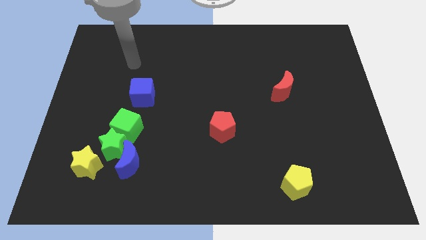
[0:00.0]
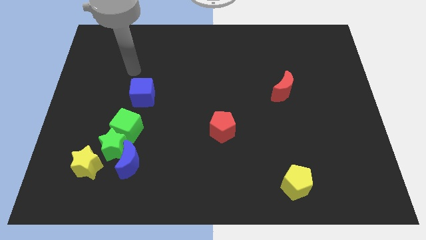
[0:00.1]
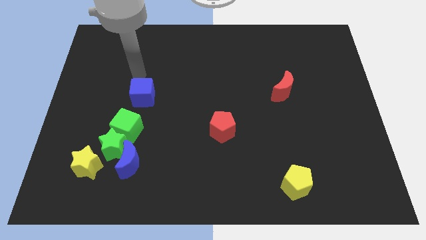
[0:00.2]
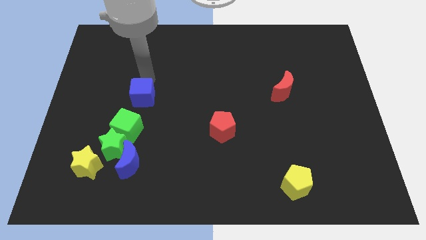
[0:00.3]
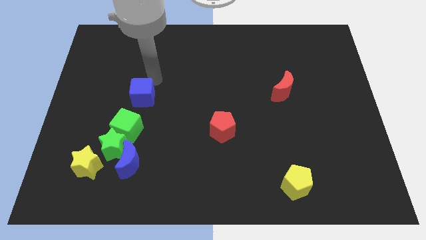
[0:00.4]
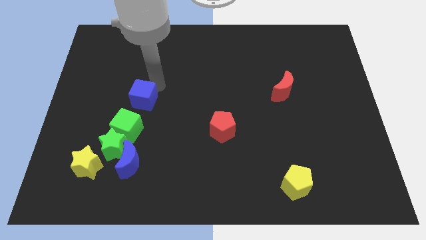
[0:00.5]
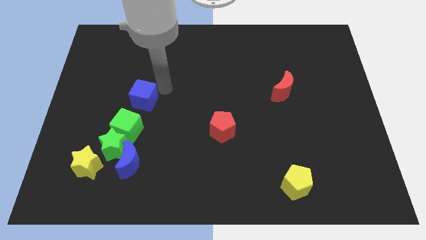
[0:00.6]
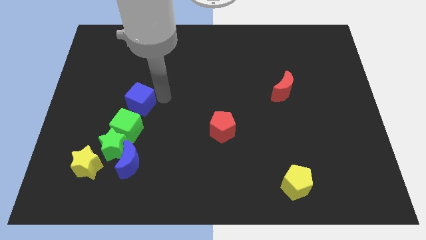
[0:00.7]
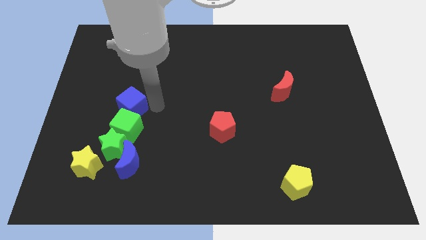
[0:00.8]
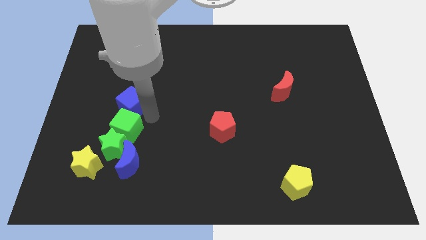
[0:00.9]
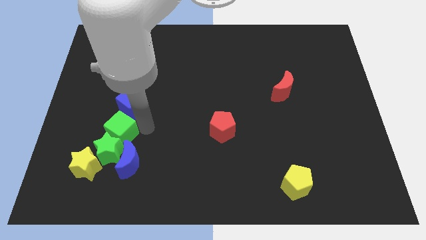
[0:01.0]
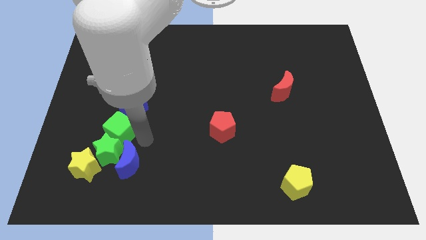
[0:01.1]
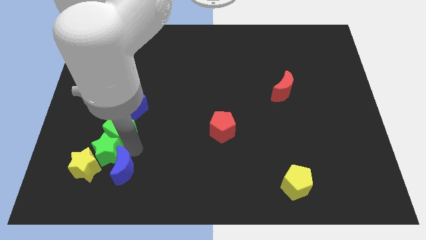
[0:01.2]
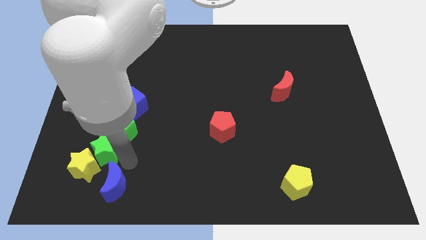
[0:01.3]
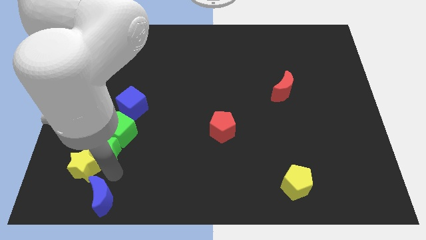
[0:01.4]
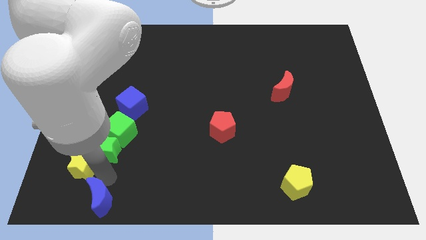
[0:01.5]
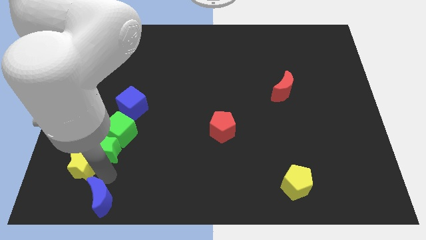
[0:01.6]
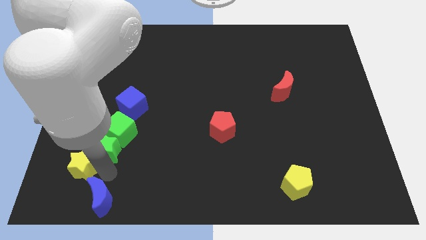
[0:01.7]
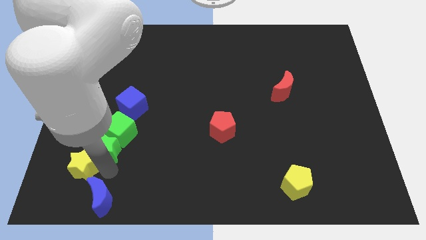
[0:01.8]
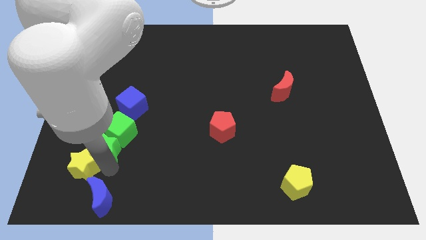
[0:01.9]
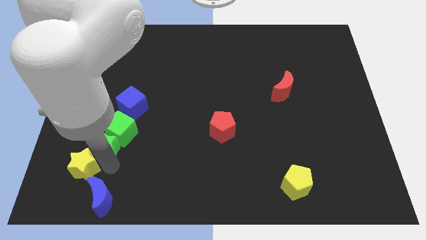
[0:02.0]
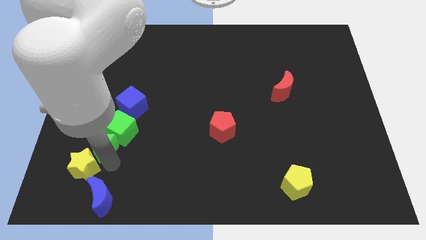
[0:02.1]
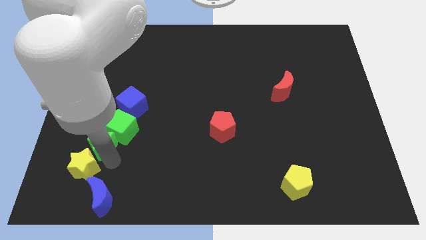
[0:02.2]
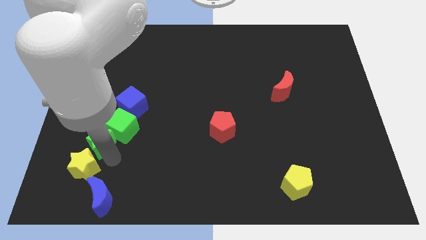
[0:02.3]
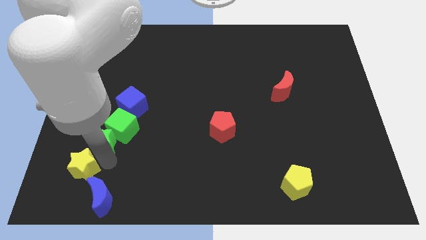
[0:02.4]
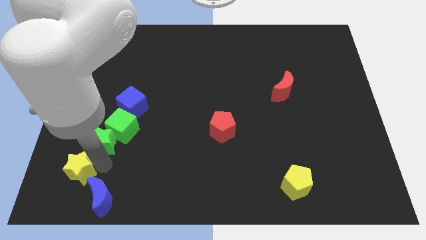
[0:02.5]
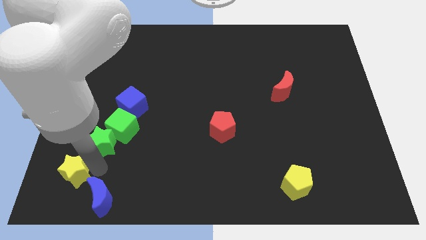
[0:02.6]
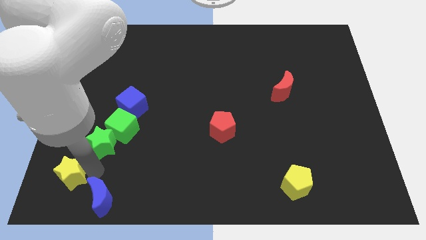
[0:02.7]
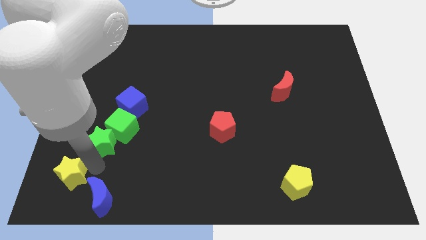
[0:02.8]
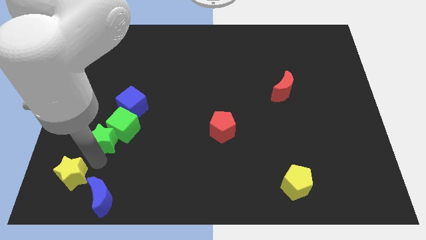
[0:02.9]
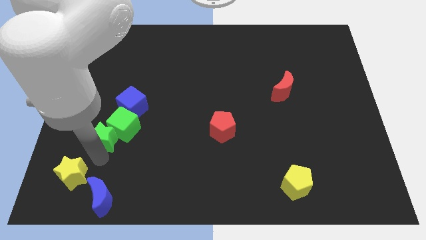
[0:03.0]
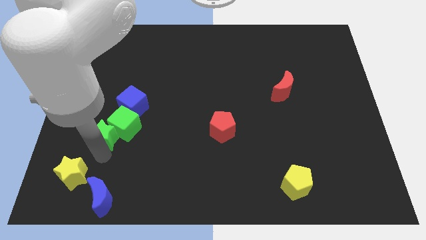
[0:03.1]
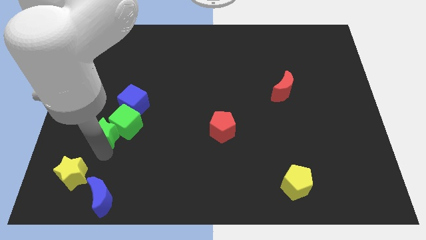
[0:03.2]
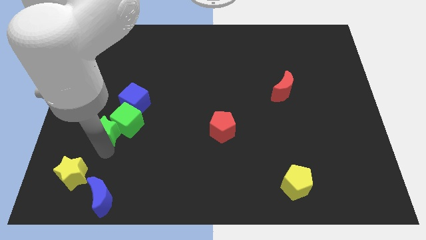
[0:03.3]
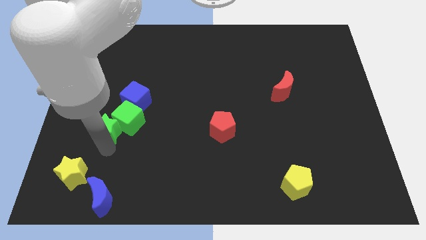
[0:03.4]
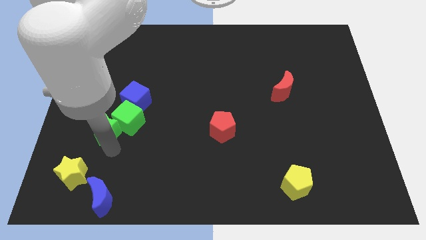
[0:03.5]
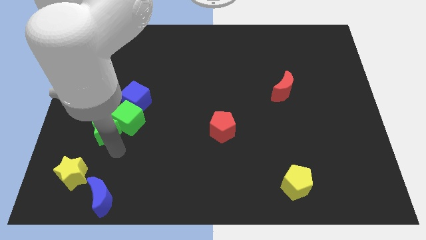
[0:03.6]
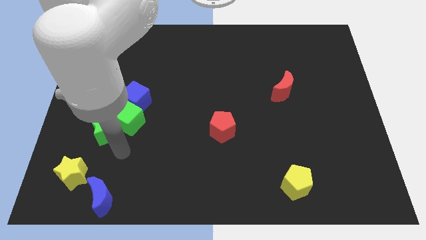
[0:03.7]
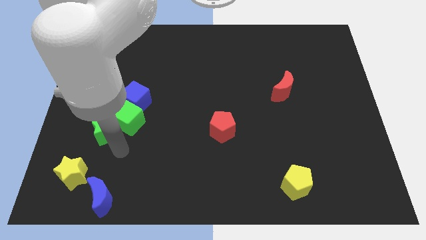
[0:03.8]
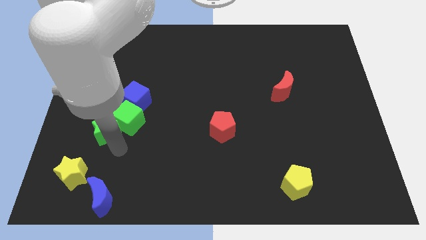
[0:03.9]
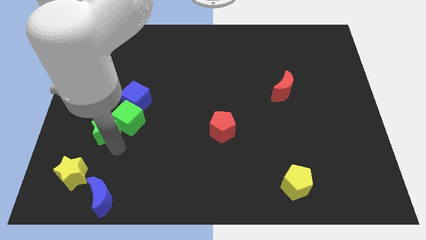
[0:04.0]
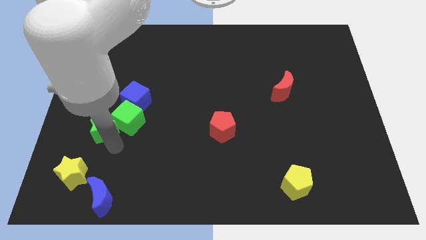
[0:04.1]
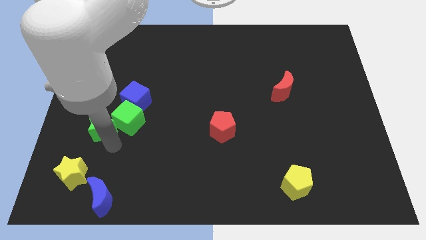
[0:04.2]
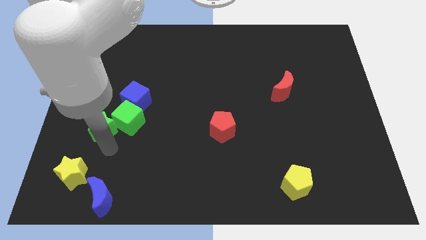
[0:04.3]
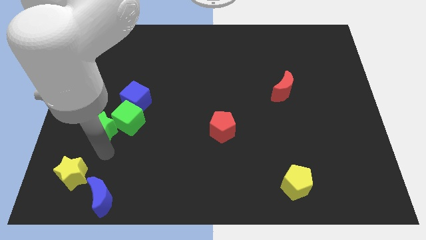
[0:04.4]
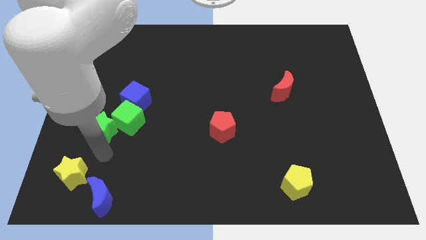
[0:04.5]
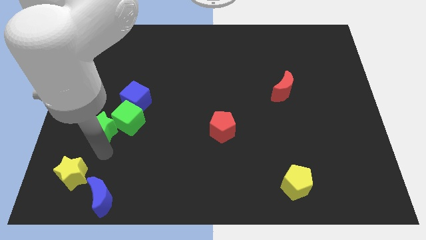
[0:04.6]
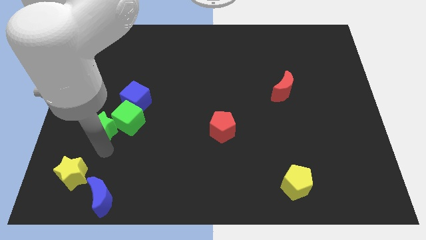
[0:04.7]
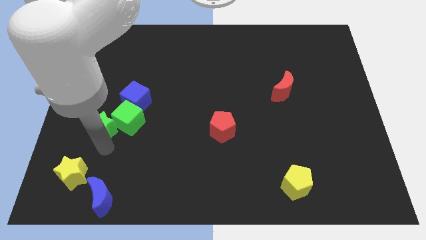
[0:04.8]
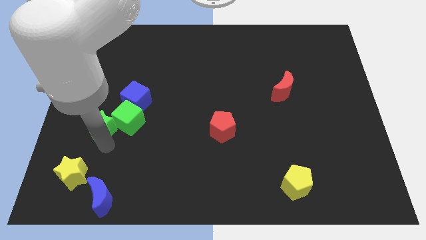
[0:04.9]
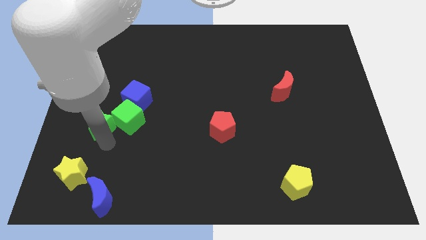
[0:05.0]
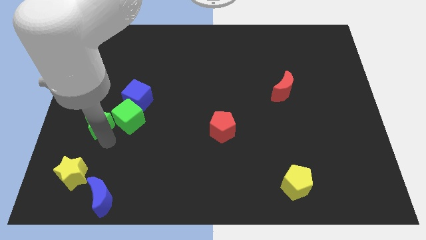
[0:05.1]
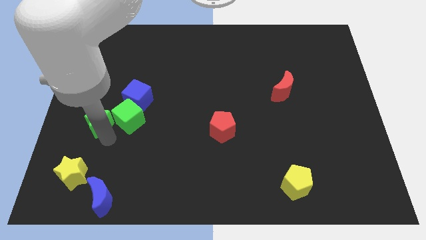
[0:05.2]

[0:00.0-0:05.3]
move the green star away from the green cube, blue moon, and yellow star

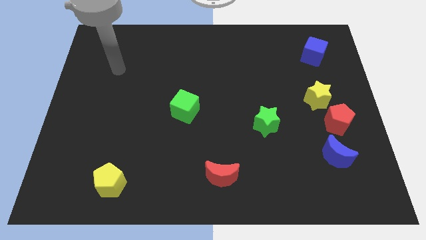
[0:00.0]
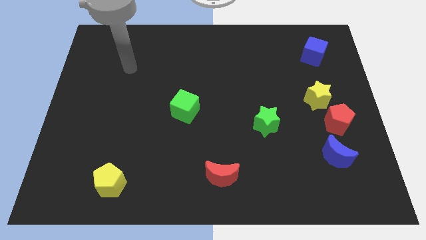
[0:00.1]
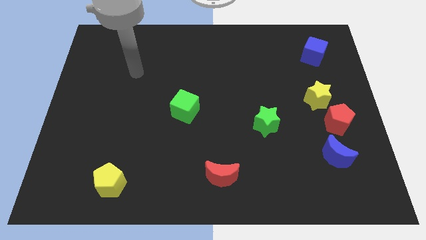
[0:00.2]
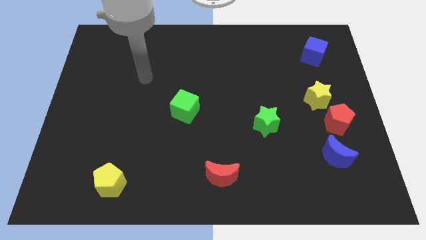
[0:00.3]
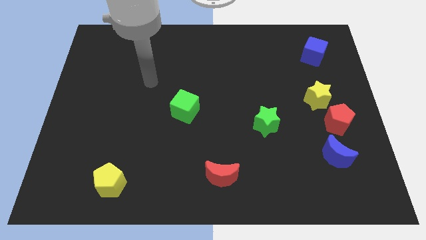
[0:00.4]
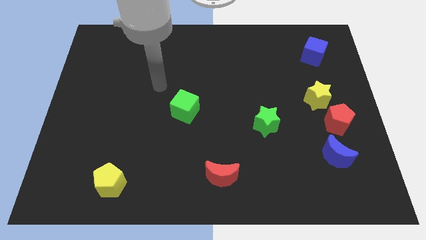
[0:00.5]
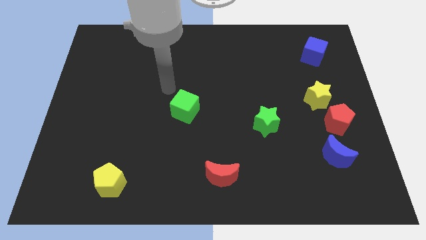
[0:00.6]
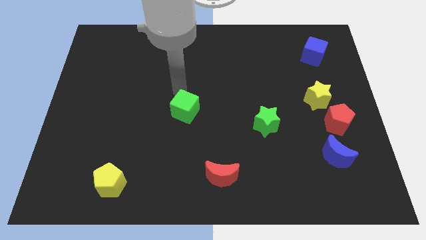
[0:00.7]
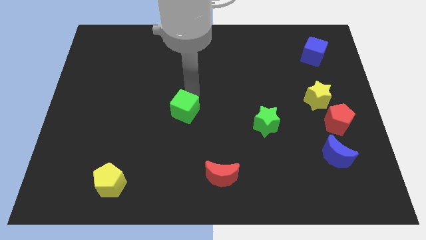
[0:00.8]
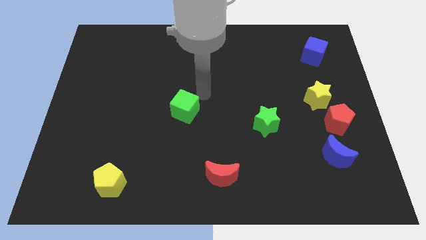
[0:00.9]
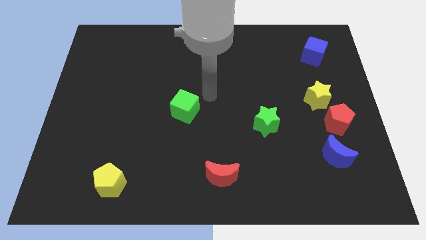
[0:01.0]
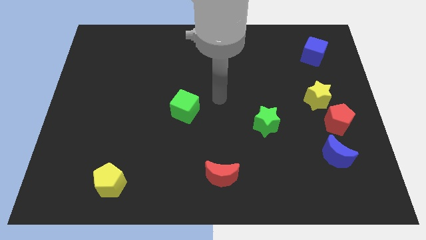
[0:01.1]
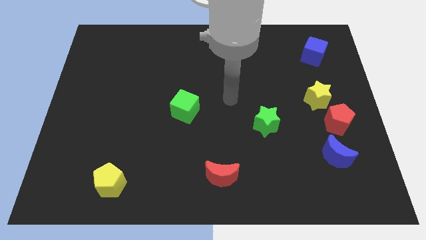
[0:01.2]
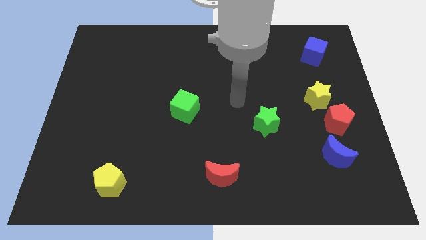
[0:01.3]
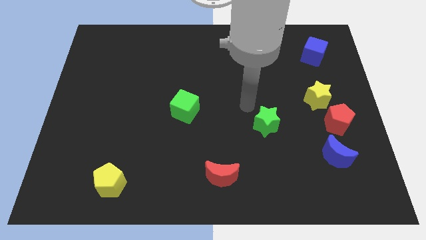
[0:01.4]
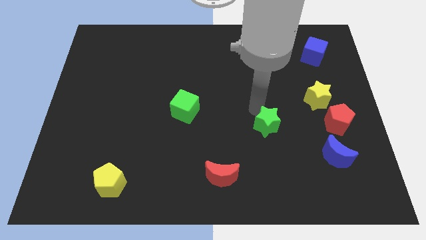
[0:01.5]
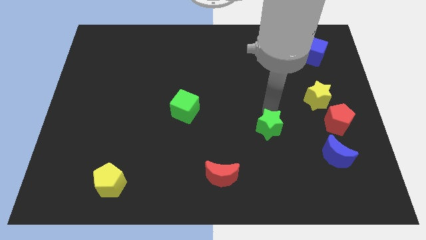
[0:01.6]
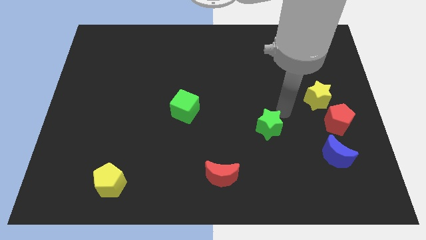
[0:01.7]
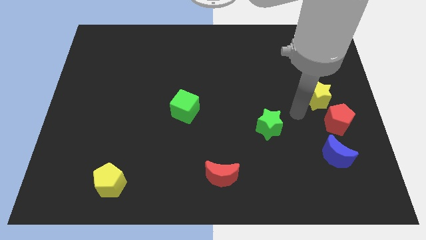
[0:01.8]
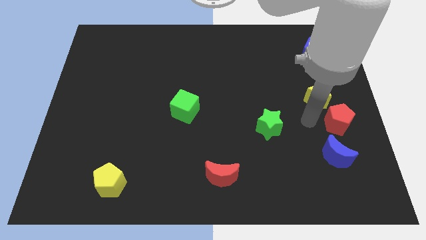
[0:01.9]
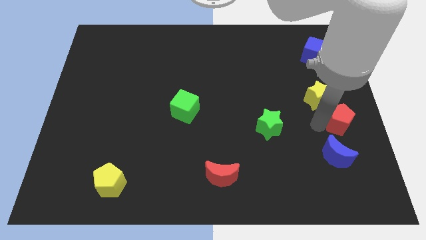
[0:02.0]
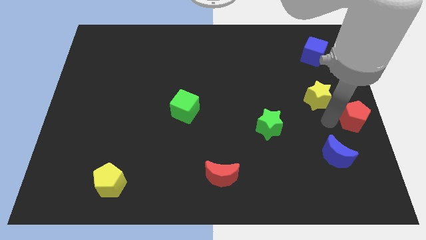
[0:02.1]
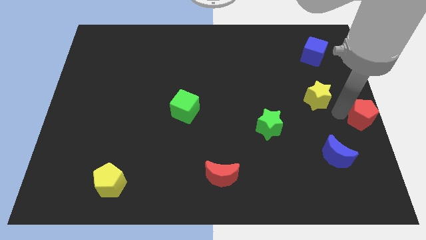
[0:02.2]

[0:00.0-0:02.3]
separate the yellow star from the red pentagon

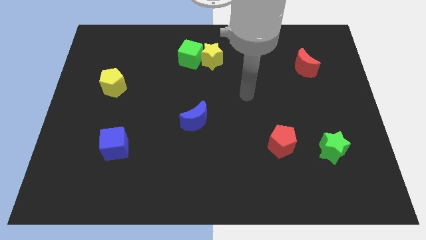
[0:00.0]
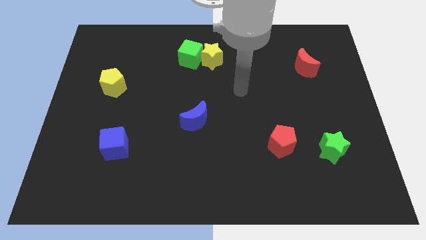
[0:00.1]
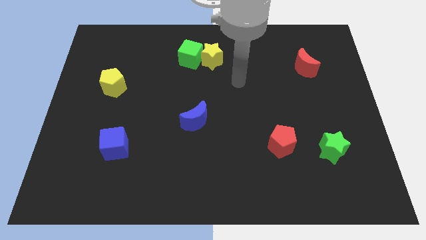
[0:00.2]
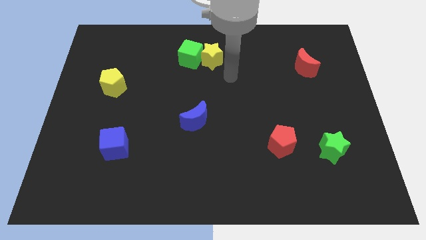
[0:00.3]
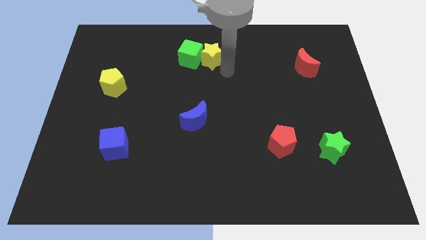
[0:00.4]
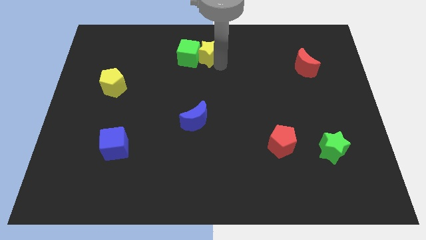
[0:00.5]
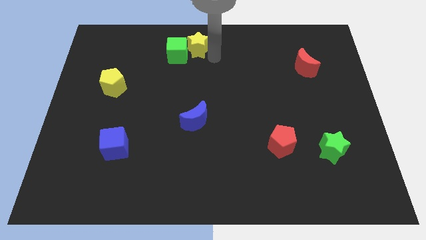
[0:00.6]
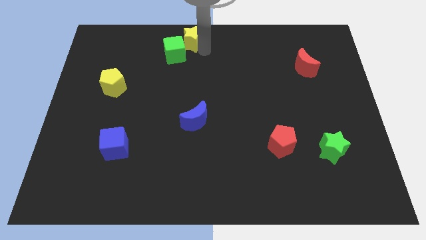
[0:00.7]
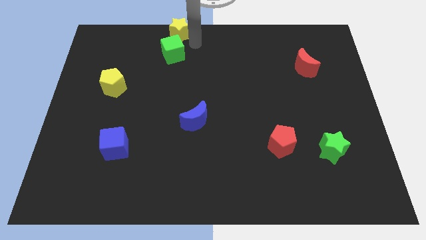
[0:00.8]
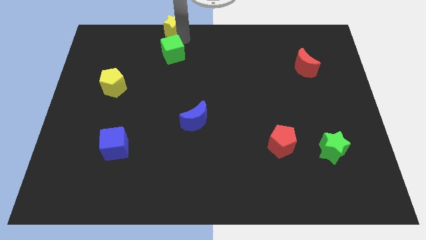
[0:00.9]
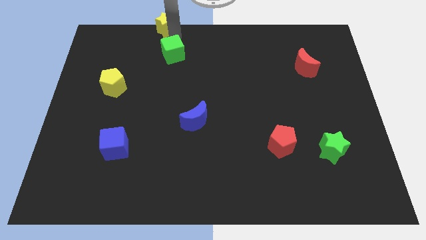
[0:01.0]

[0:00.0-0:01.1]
separate the green cube from the yellow star

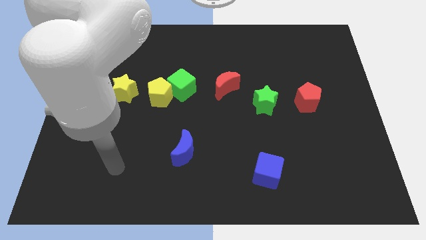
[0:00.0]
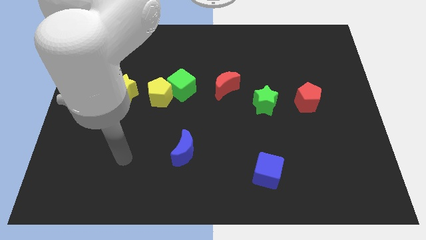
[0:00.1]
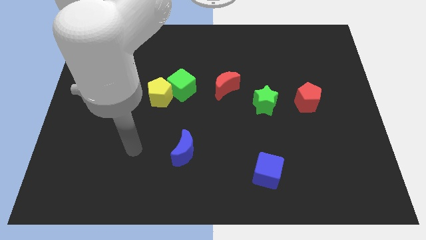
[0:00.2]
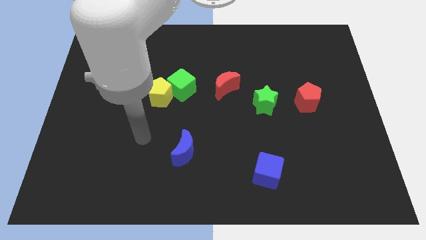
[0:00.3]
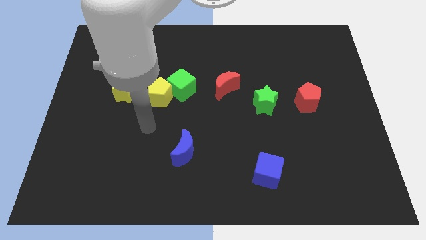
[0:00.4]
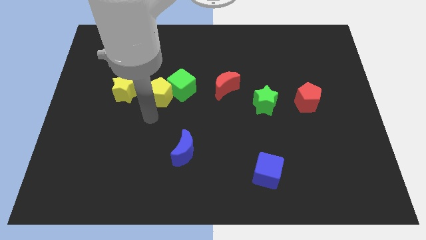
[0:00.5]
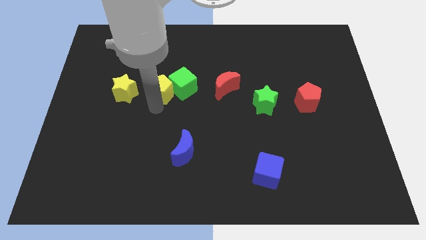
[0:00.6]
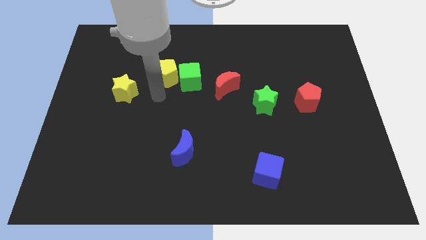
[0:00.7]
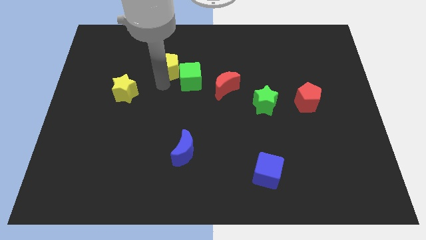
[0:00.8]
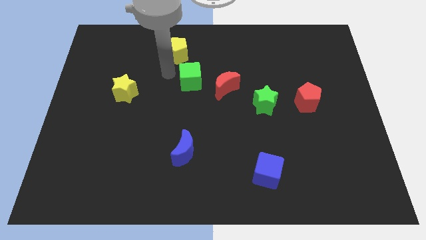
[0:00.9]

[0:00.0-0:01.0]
separate the green cube from the yellow pentagon
